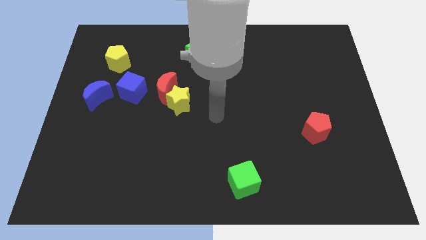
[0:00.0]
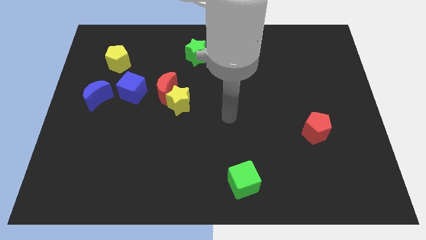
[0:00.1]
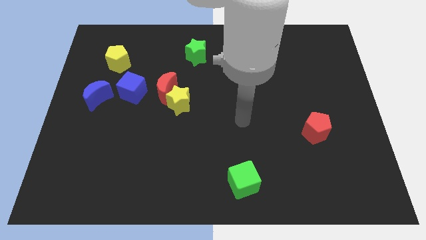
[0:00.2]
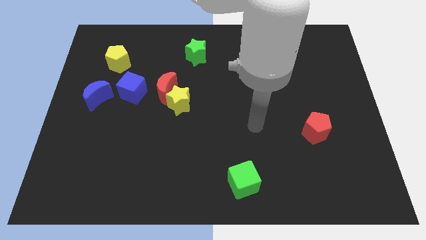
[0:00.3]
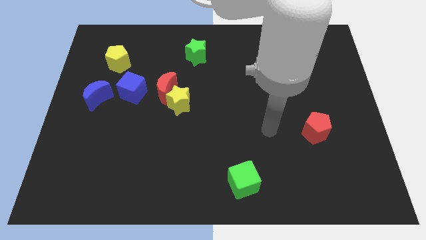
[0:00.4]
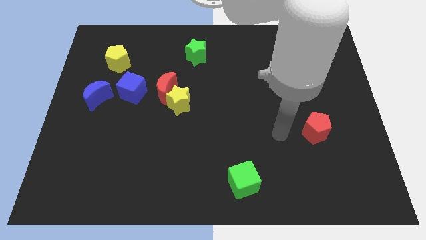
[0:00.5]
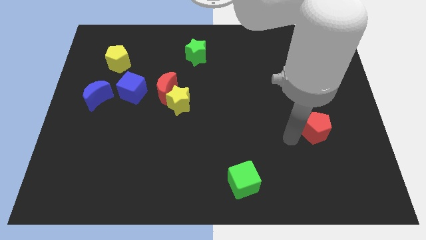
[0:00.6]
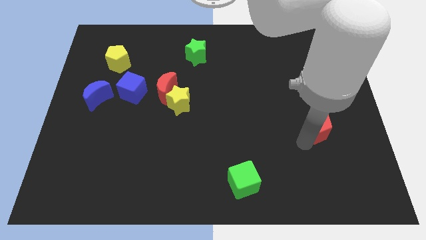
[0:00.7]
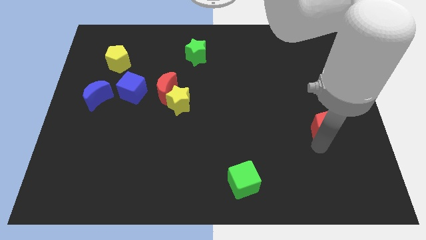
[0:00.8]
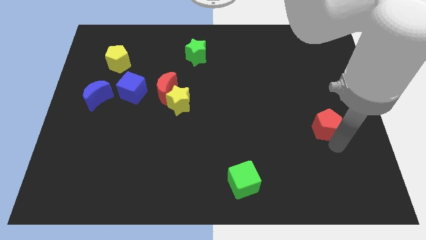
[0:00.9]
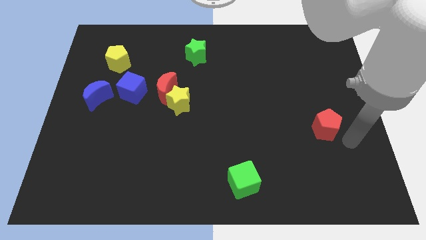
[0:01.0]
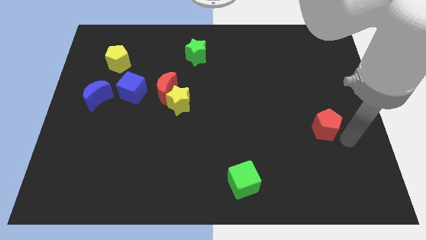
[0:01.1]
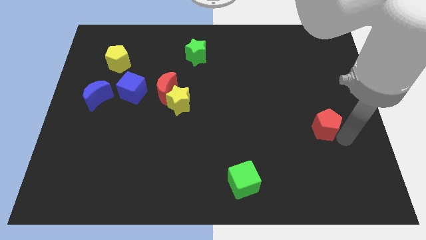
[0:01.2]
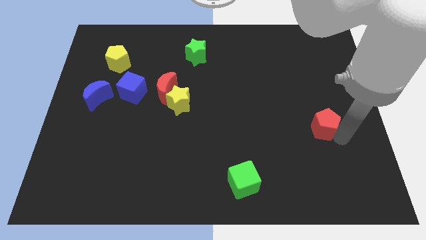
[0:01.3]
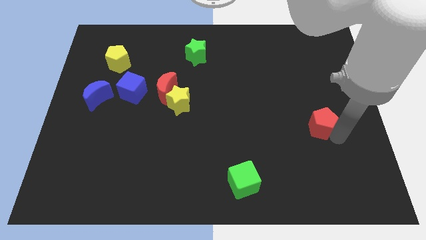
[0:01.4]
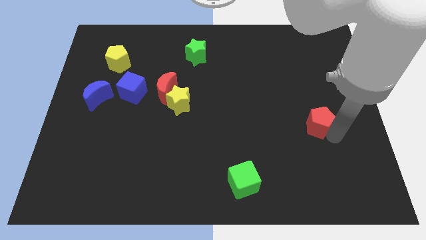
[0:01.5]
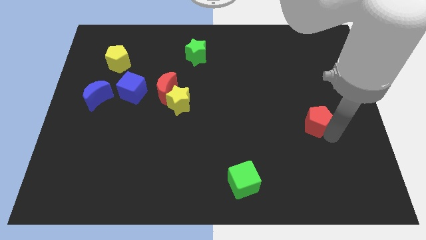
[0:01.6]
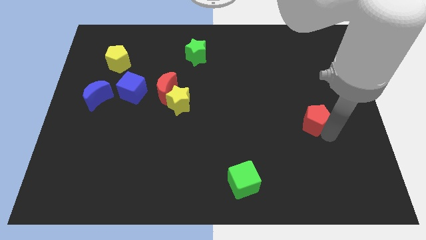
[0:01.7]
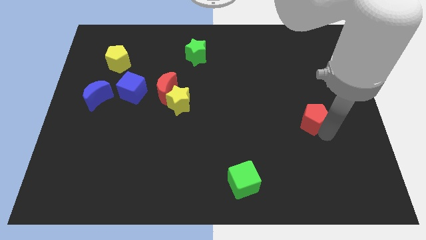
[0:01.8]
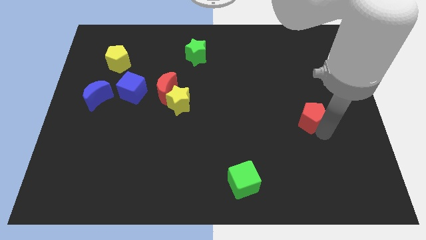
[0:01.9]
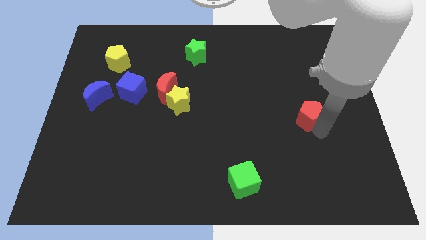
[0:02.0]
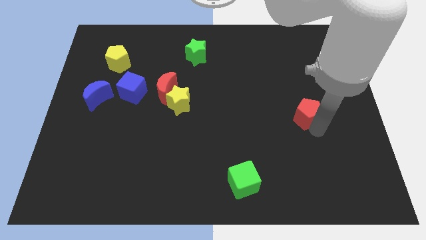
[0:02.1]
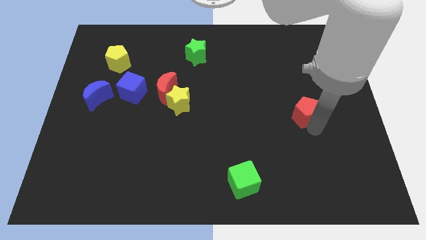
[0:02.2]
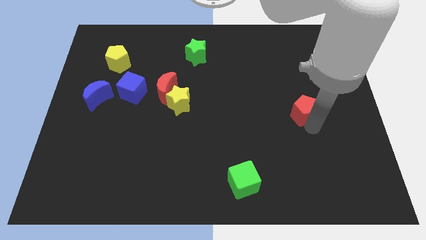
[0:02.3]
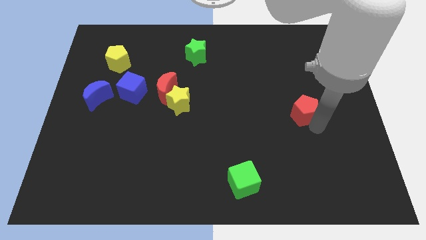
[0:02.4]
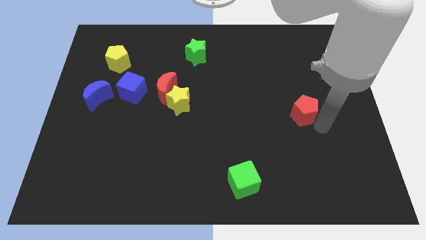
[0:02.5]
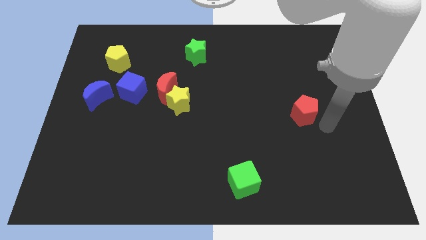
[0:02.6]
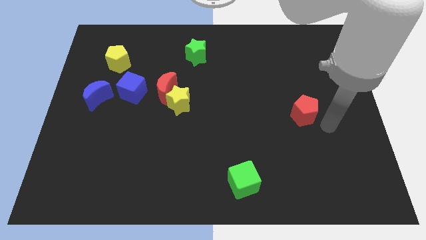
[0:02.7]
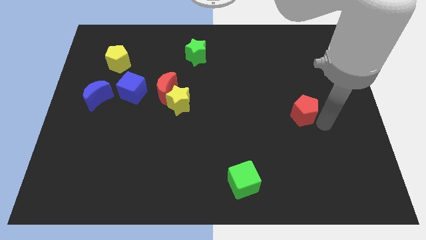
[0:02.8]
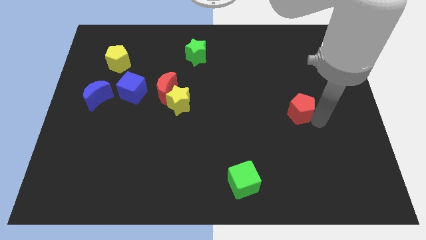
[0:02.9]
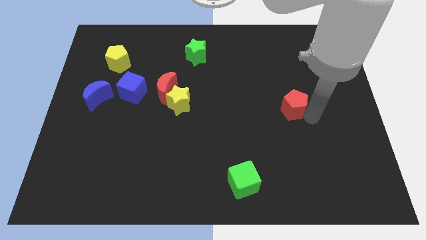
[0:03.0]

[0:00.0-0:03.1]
slightly slide the red pentagon up and then left

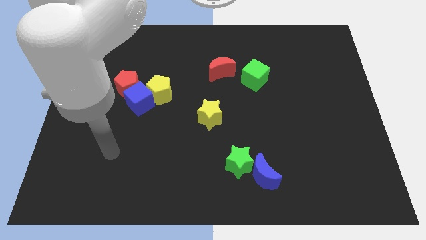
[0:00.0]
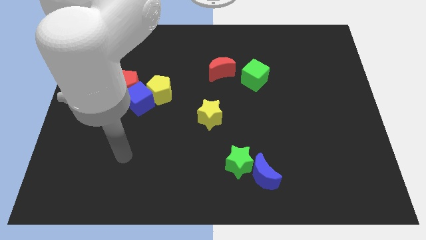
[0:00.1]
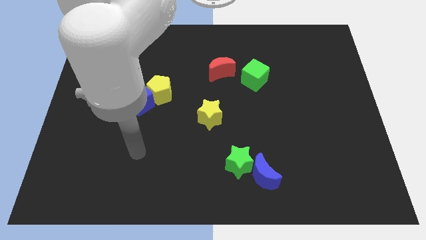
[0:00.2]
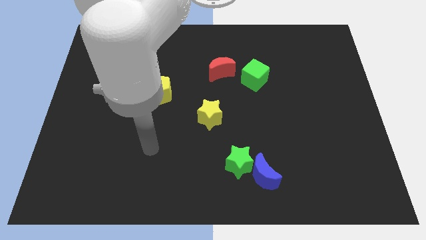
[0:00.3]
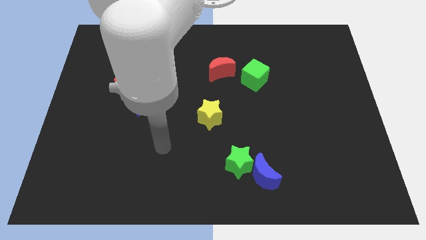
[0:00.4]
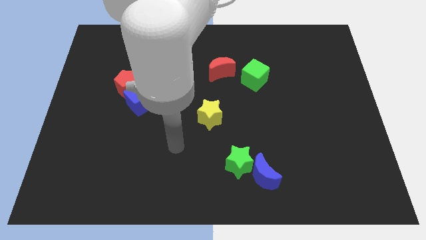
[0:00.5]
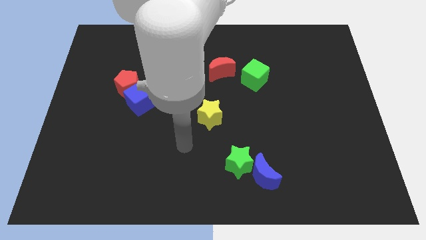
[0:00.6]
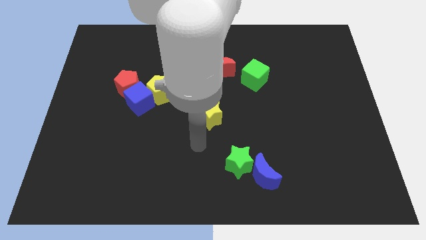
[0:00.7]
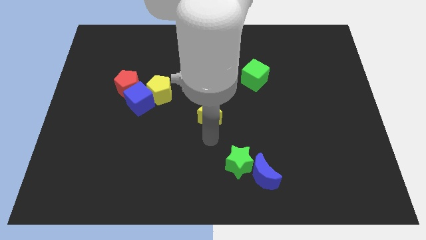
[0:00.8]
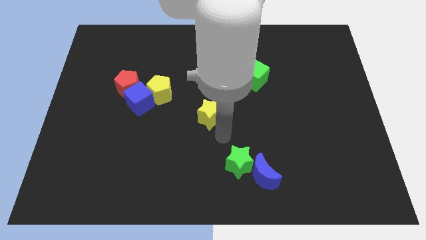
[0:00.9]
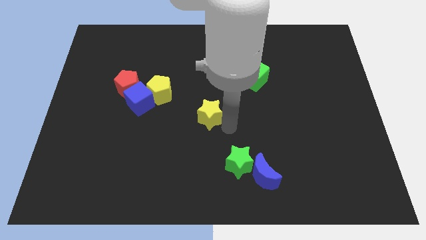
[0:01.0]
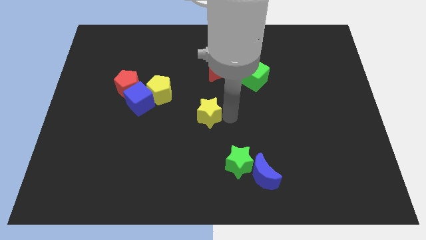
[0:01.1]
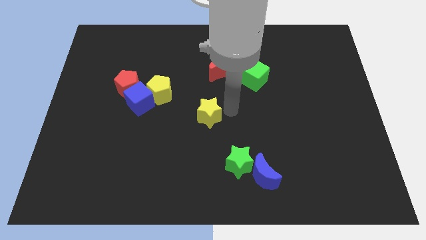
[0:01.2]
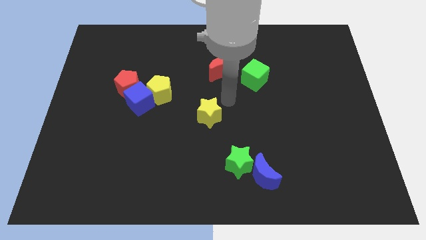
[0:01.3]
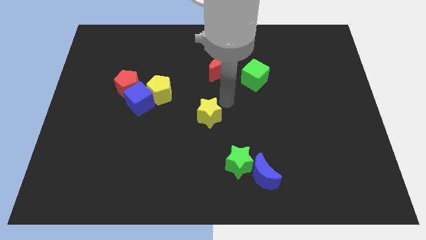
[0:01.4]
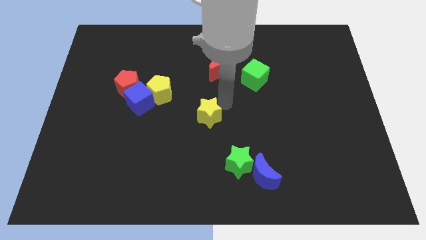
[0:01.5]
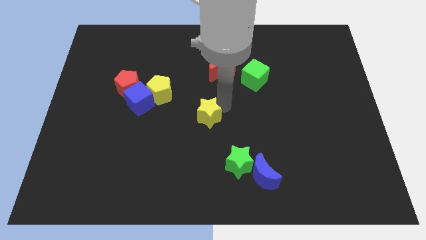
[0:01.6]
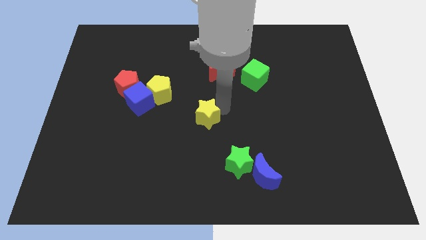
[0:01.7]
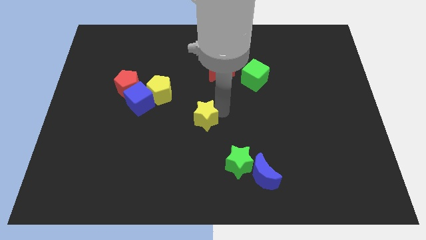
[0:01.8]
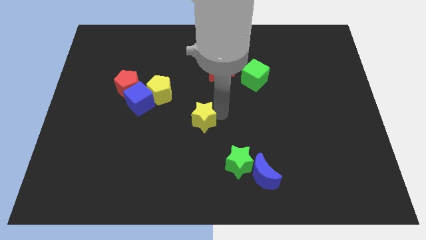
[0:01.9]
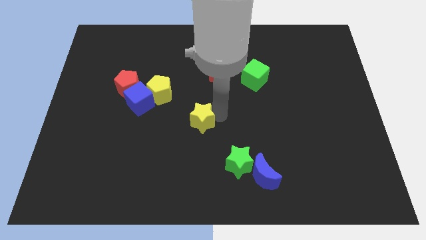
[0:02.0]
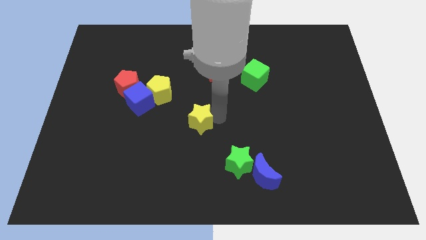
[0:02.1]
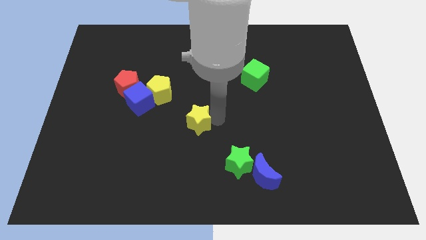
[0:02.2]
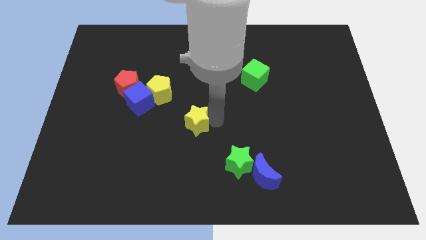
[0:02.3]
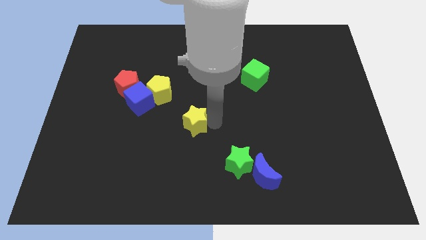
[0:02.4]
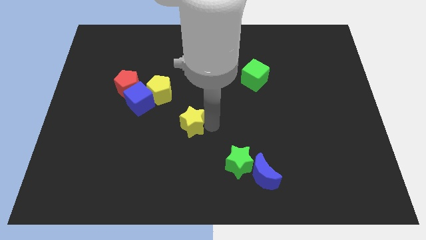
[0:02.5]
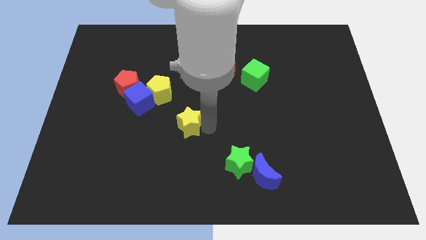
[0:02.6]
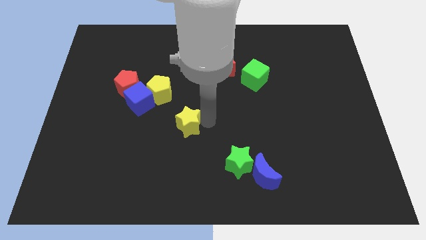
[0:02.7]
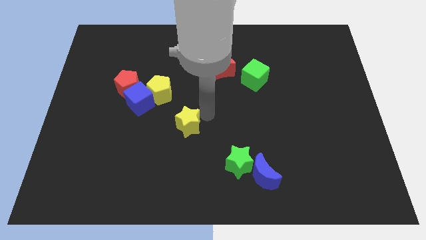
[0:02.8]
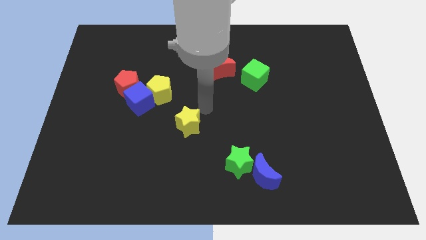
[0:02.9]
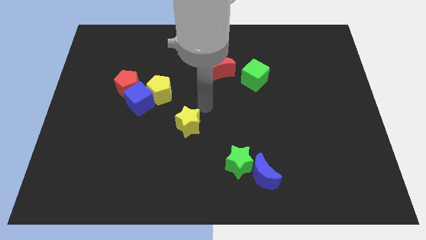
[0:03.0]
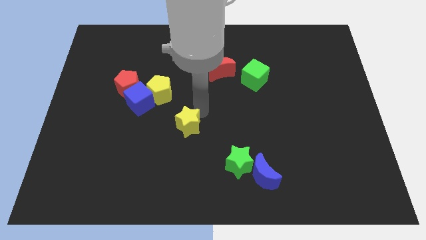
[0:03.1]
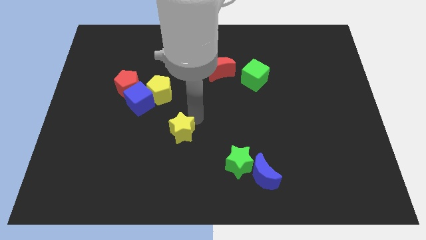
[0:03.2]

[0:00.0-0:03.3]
slightly move the yellow star down and then left

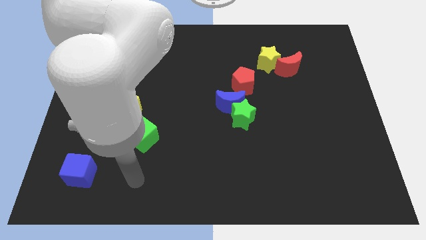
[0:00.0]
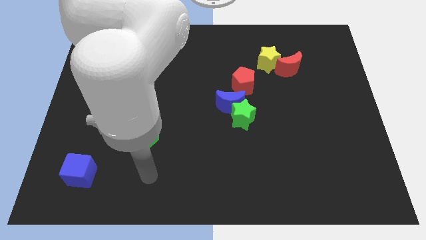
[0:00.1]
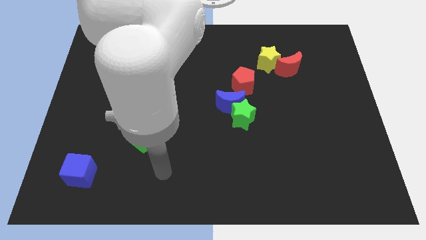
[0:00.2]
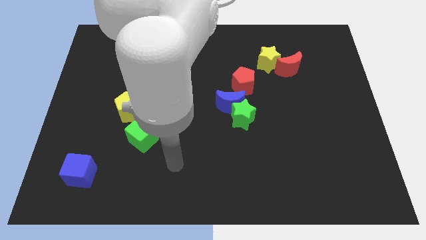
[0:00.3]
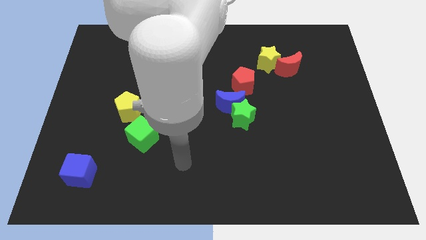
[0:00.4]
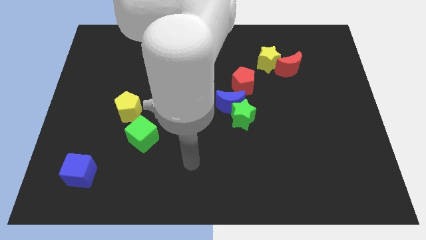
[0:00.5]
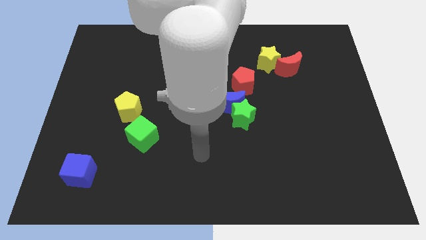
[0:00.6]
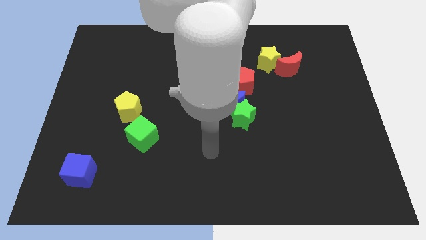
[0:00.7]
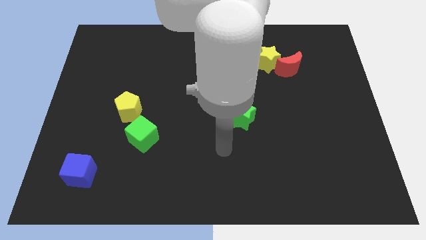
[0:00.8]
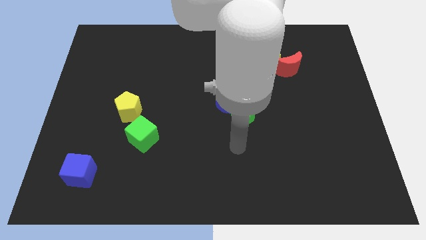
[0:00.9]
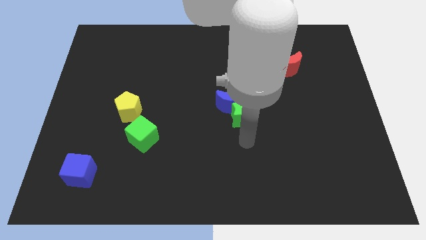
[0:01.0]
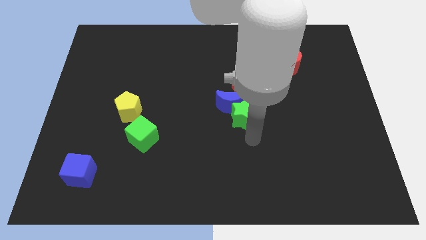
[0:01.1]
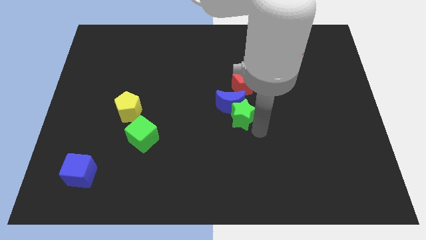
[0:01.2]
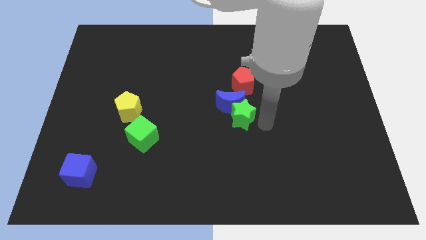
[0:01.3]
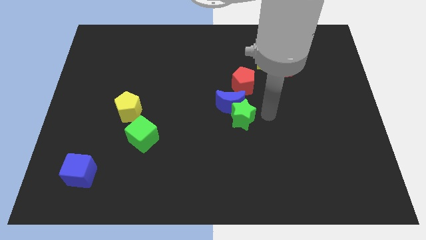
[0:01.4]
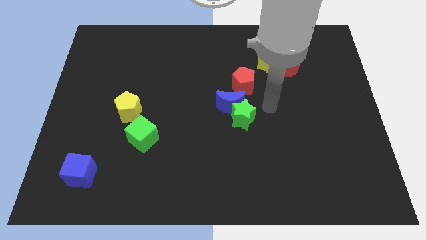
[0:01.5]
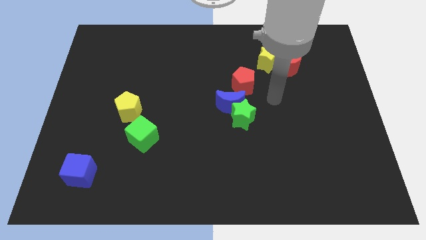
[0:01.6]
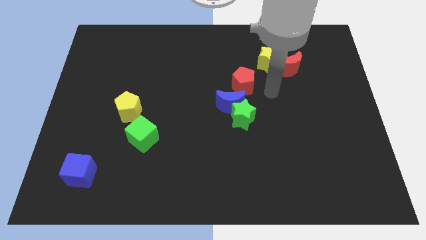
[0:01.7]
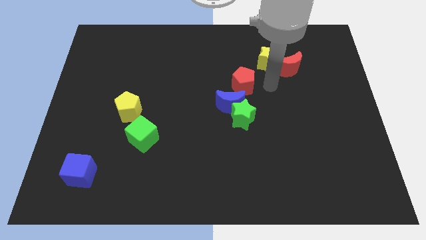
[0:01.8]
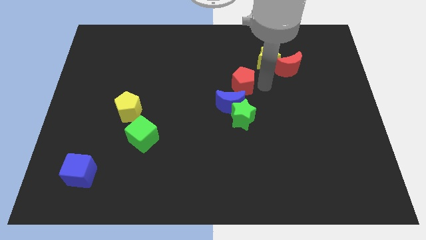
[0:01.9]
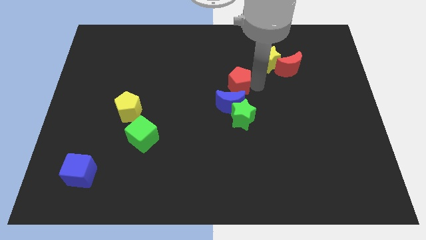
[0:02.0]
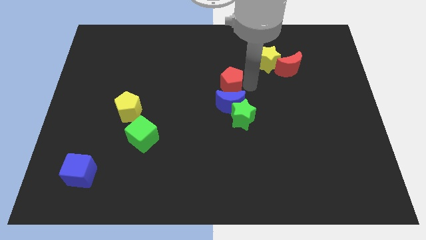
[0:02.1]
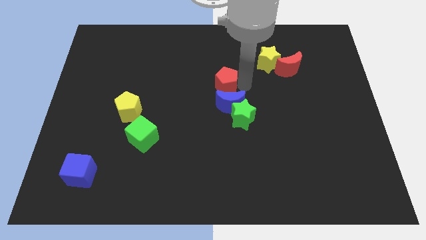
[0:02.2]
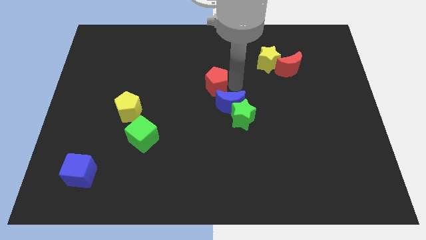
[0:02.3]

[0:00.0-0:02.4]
push the red pentagon left somewhat
